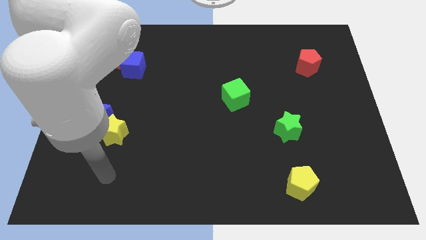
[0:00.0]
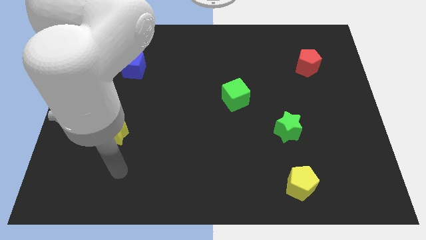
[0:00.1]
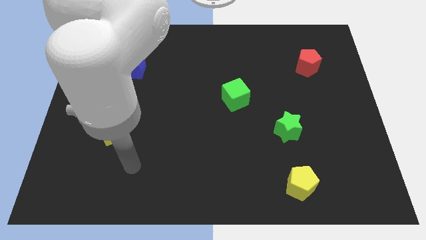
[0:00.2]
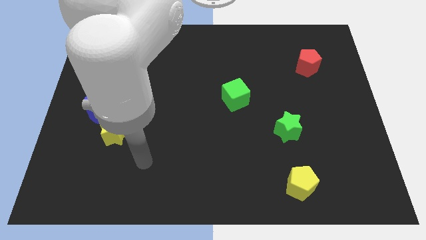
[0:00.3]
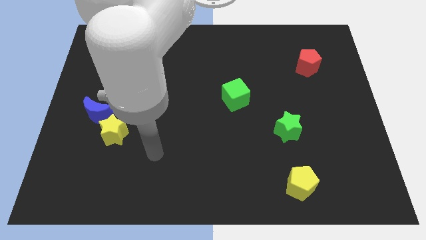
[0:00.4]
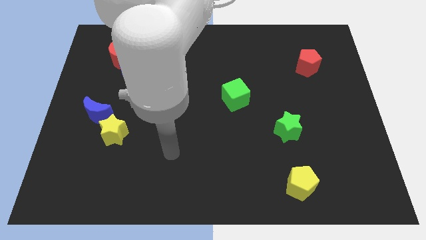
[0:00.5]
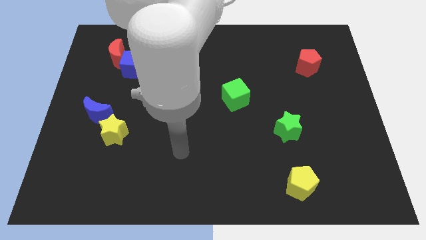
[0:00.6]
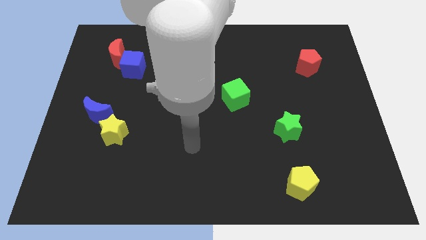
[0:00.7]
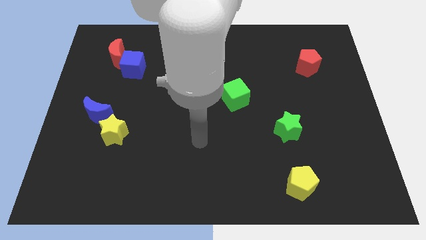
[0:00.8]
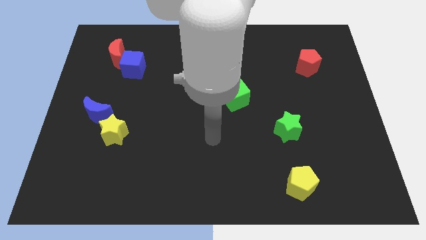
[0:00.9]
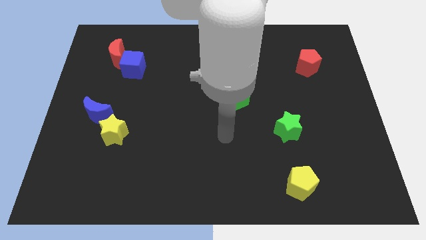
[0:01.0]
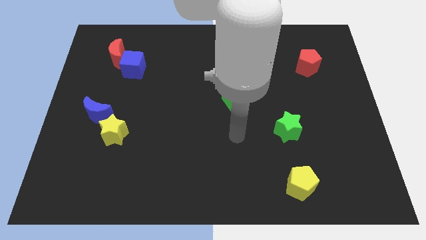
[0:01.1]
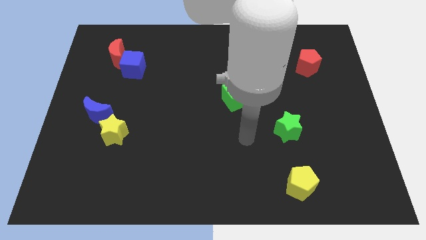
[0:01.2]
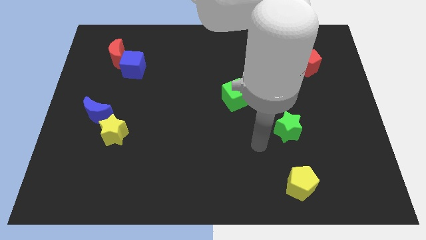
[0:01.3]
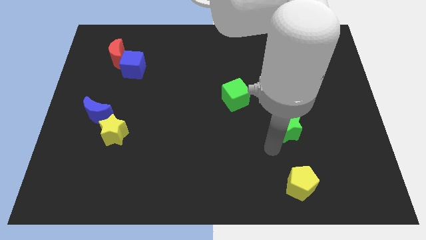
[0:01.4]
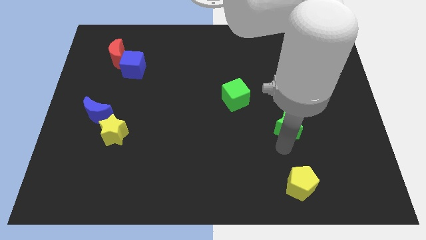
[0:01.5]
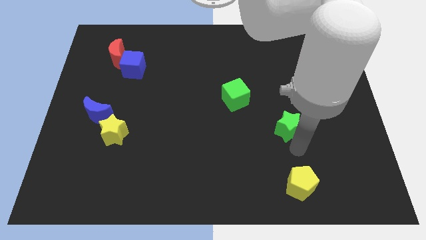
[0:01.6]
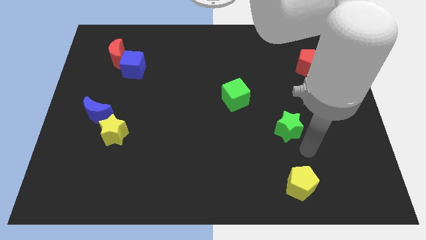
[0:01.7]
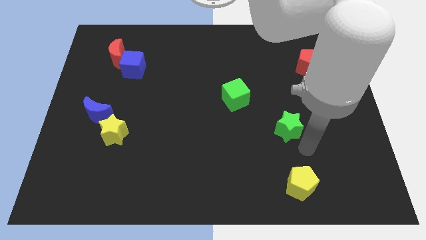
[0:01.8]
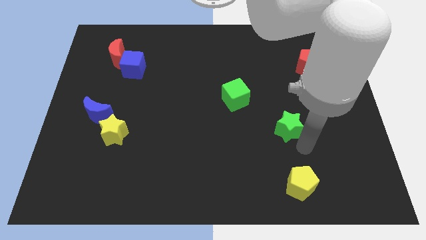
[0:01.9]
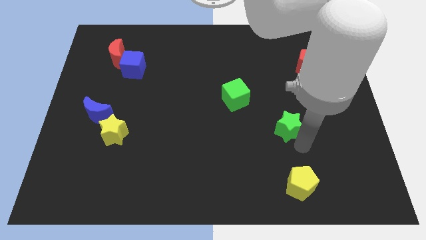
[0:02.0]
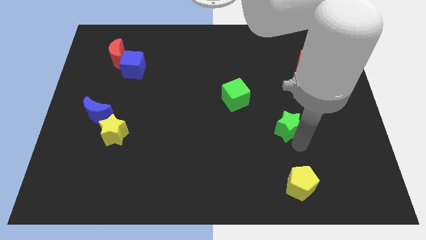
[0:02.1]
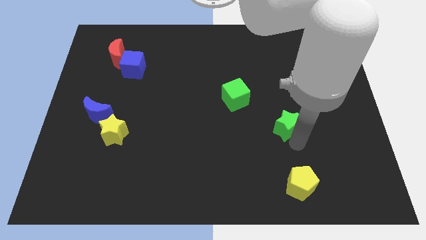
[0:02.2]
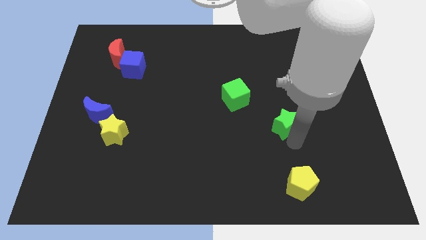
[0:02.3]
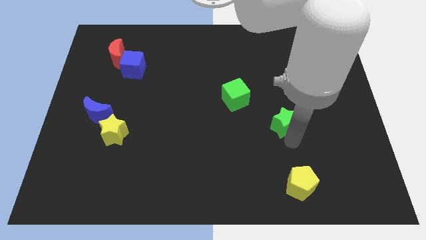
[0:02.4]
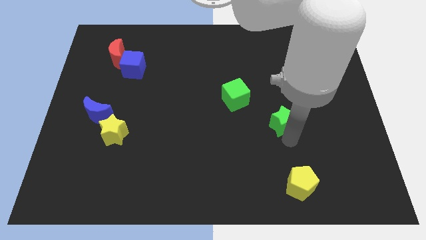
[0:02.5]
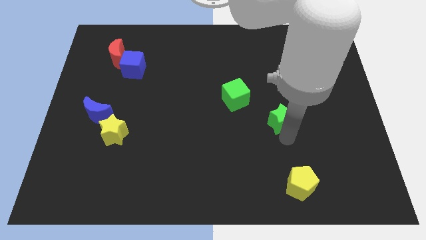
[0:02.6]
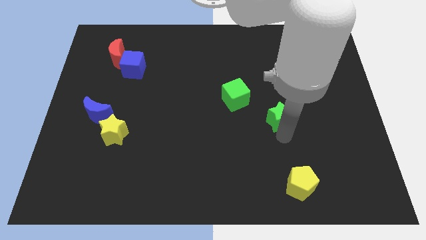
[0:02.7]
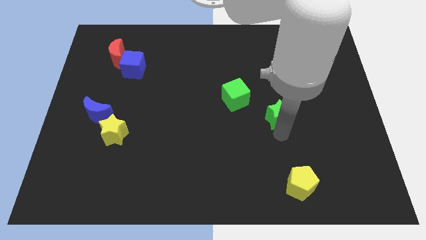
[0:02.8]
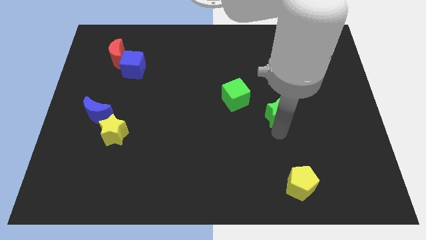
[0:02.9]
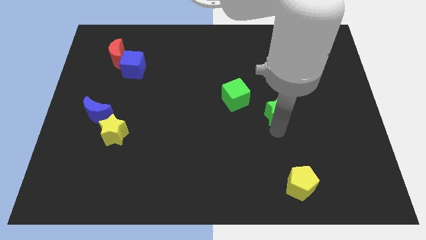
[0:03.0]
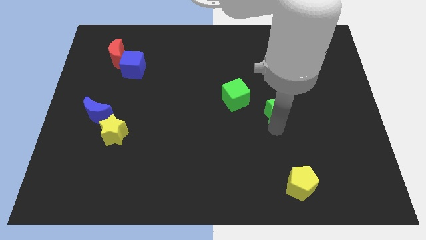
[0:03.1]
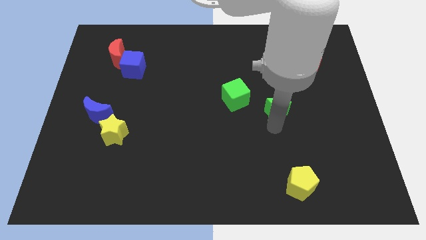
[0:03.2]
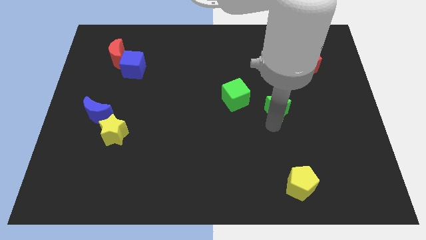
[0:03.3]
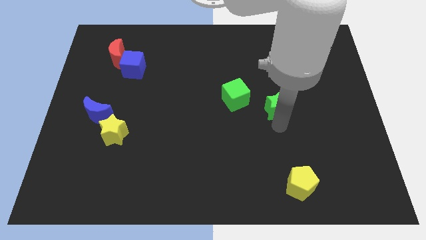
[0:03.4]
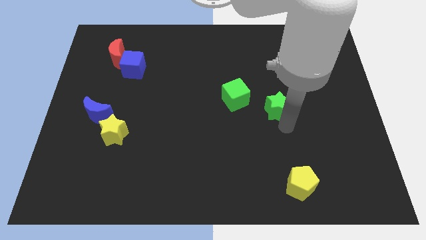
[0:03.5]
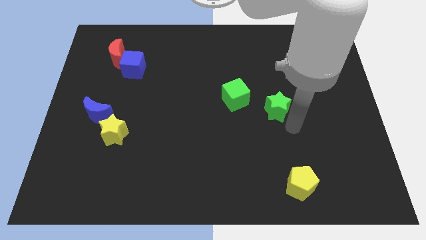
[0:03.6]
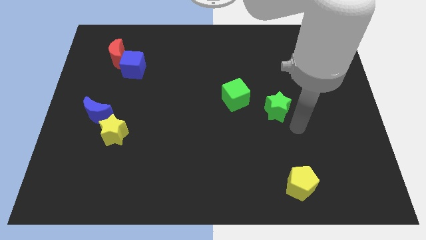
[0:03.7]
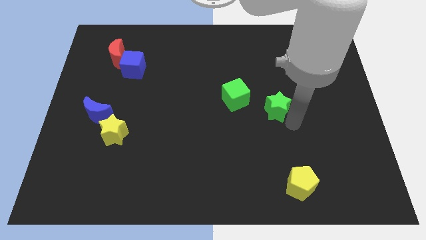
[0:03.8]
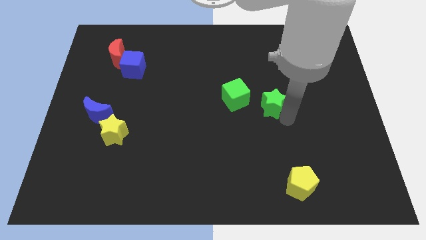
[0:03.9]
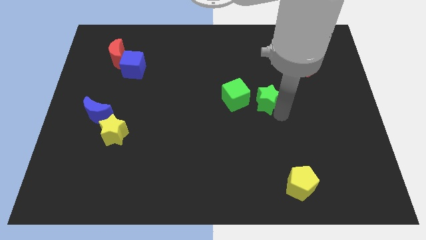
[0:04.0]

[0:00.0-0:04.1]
push the green star diagonally up and to the left a little bit

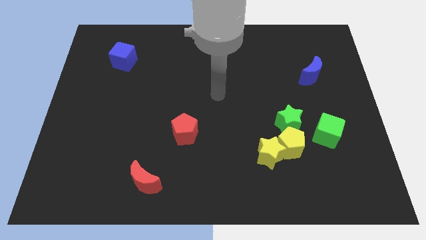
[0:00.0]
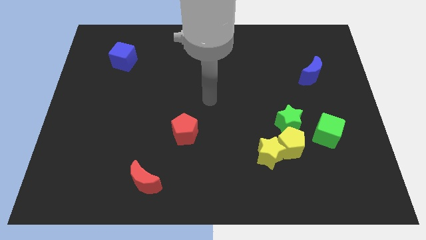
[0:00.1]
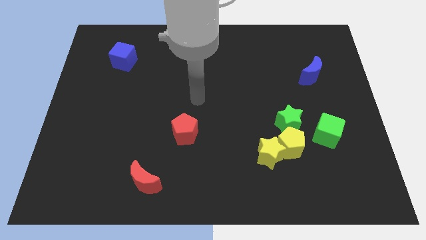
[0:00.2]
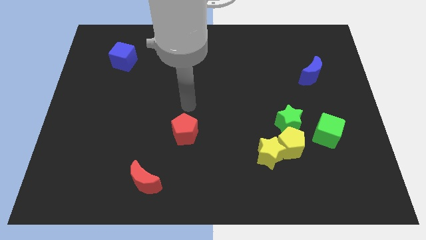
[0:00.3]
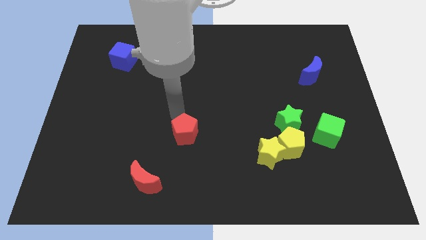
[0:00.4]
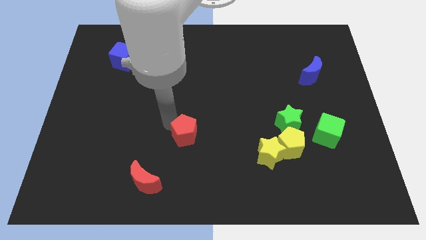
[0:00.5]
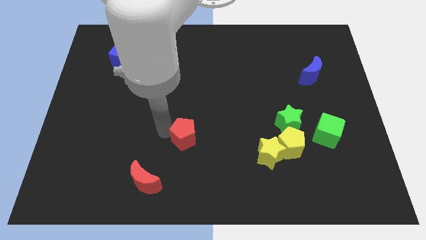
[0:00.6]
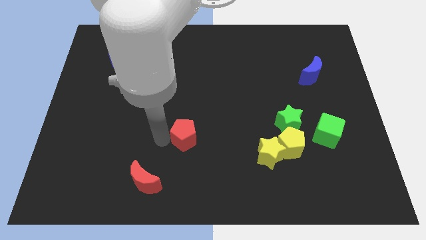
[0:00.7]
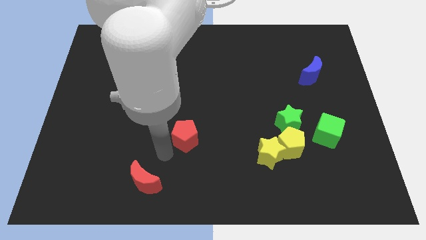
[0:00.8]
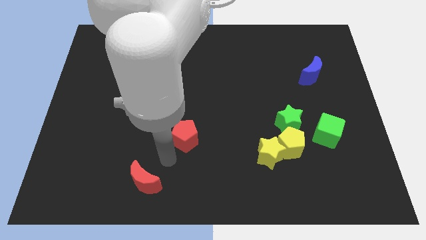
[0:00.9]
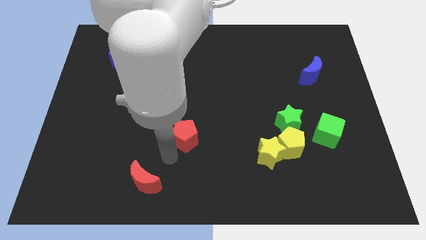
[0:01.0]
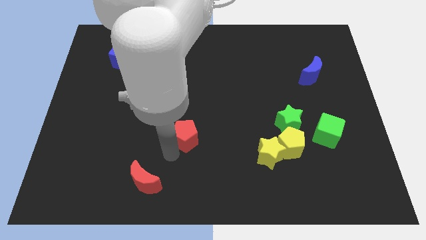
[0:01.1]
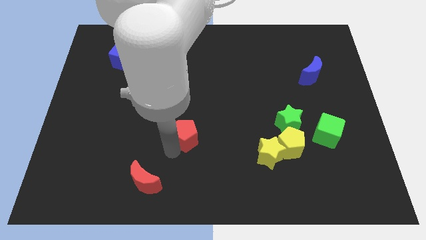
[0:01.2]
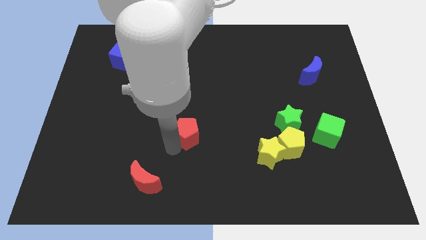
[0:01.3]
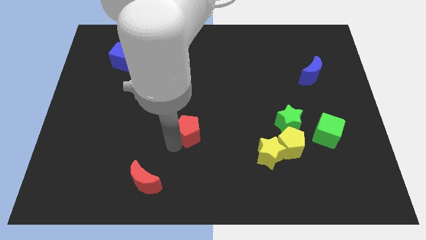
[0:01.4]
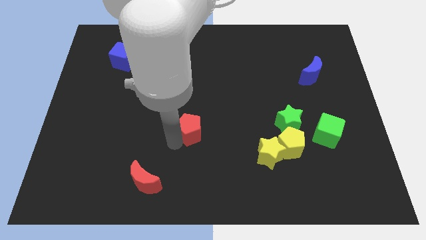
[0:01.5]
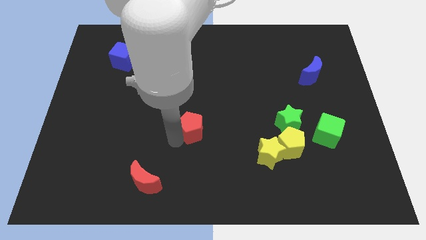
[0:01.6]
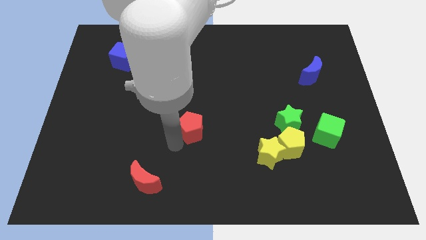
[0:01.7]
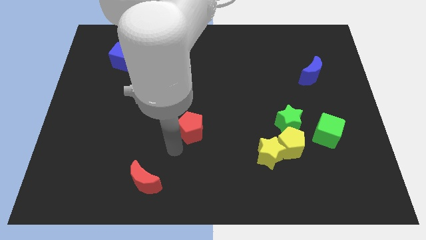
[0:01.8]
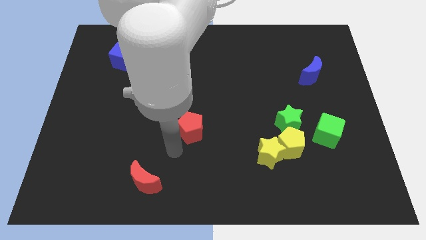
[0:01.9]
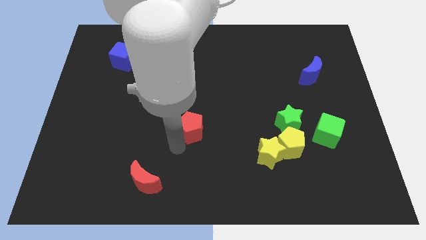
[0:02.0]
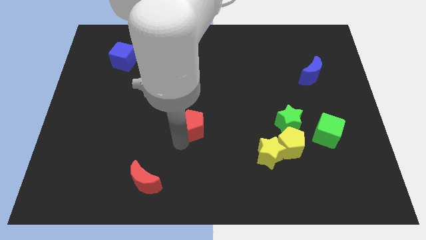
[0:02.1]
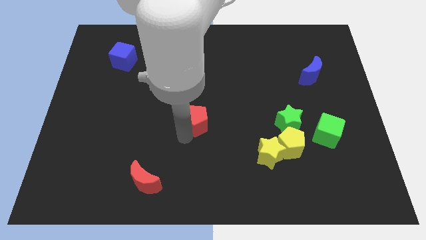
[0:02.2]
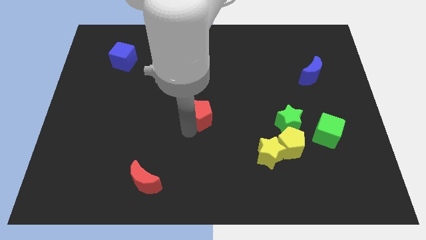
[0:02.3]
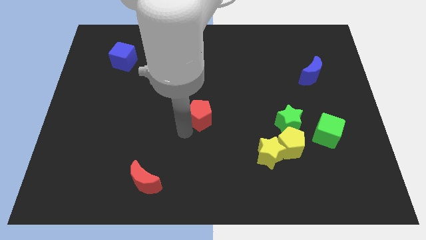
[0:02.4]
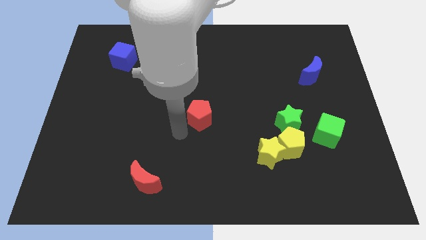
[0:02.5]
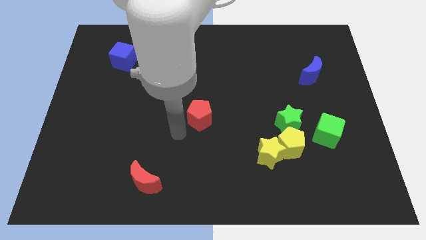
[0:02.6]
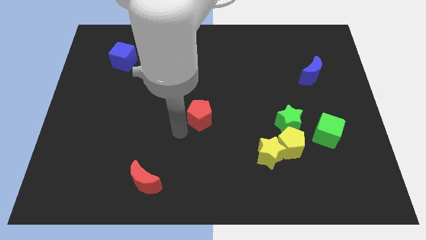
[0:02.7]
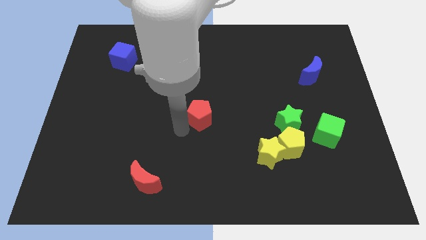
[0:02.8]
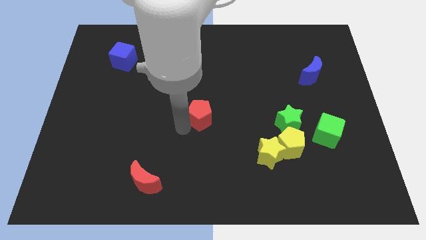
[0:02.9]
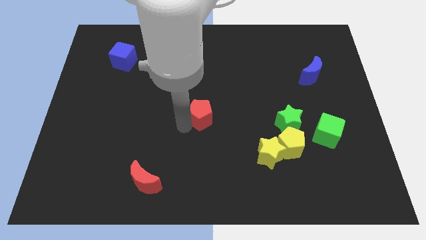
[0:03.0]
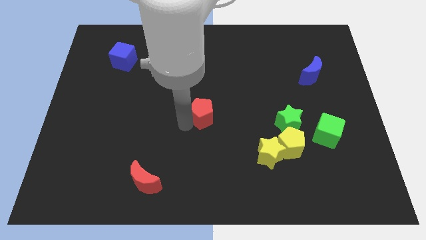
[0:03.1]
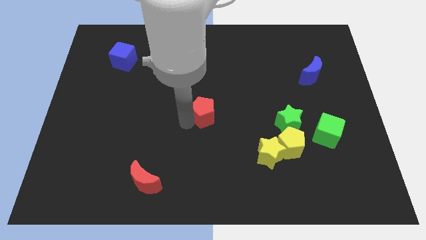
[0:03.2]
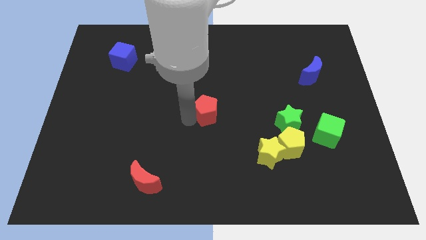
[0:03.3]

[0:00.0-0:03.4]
slightly move the red pentagon diagonally up and right

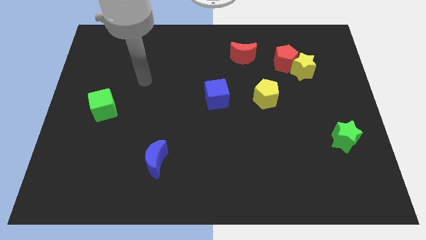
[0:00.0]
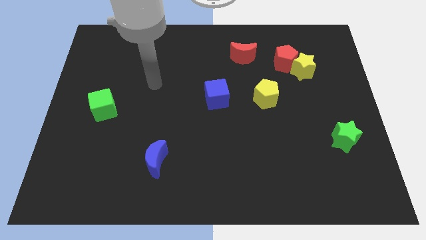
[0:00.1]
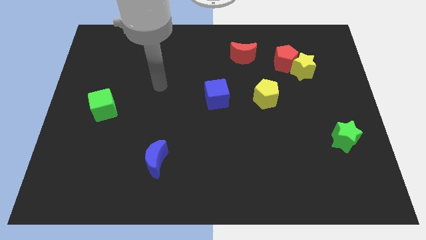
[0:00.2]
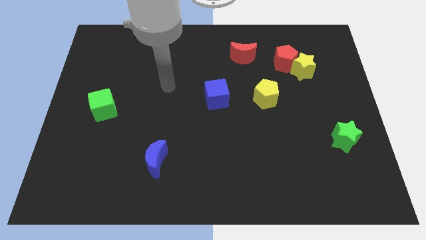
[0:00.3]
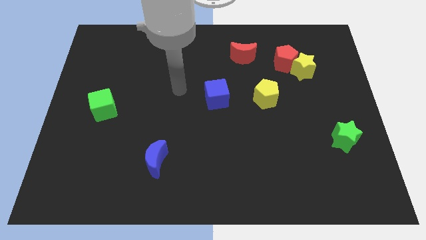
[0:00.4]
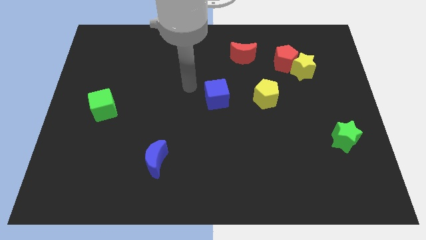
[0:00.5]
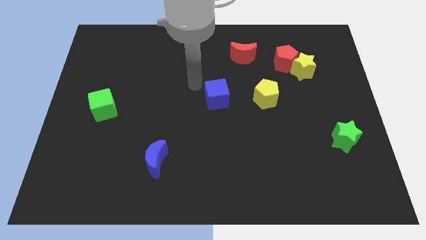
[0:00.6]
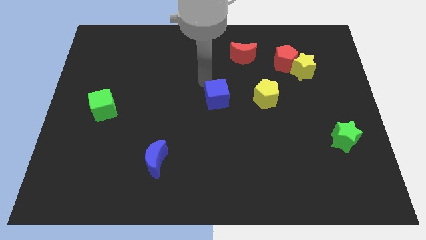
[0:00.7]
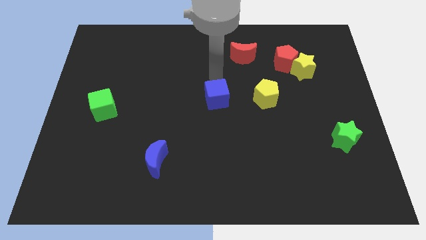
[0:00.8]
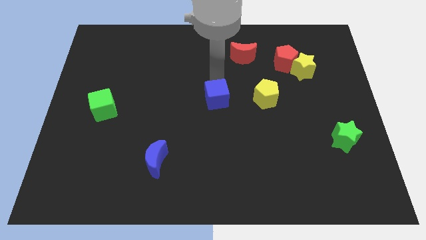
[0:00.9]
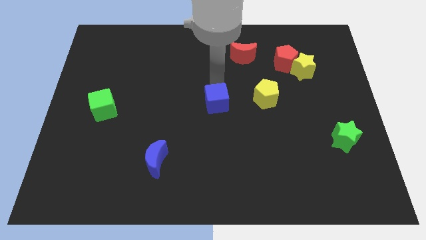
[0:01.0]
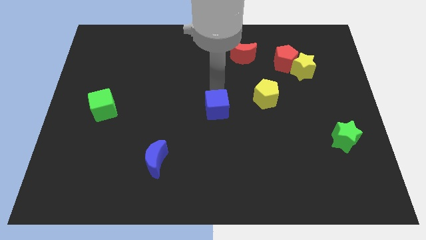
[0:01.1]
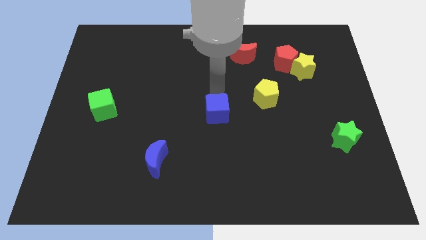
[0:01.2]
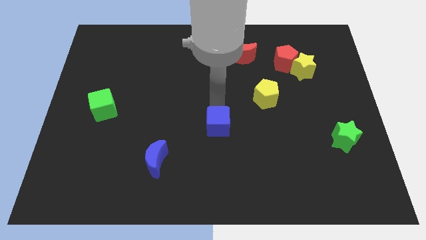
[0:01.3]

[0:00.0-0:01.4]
move the blue cube a little bit downwards
